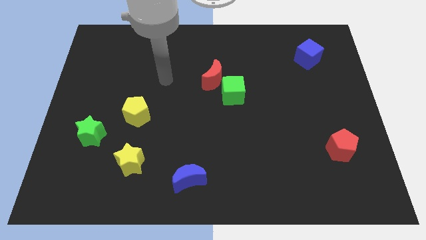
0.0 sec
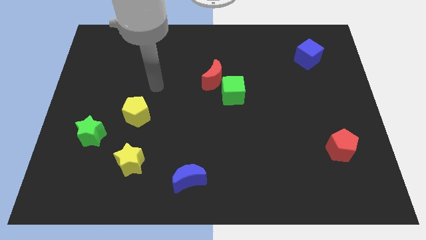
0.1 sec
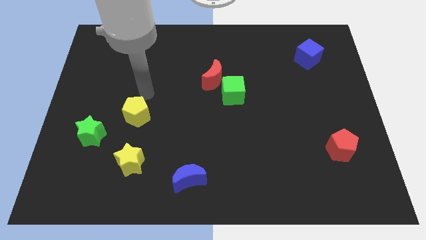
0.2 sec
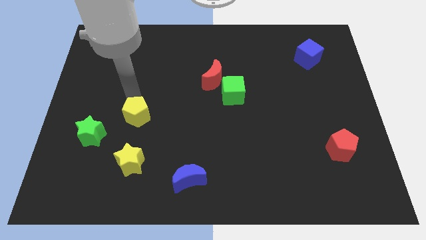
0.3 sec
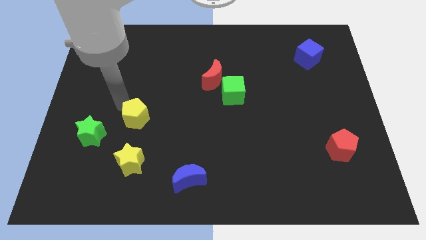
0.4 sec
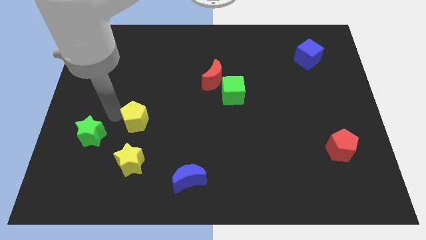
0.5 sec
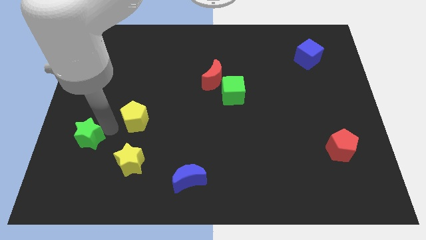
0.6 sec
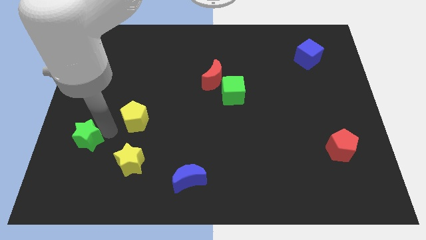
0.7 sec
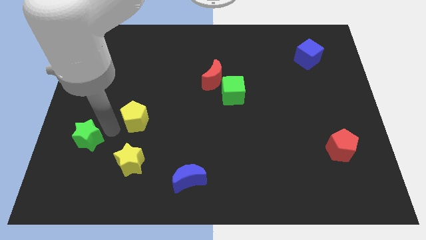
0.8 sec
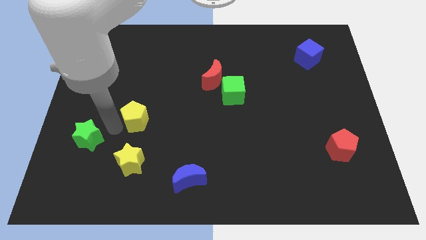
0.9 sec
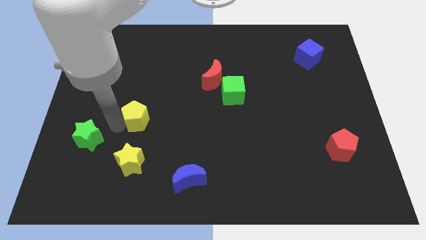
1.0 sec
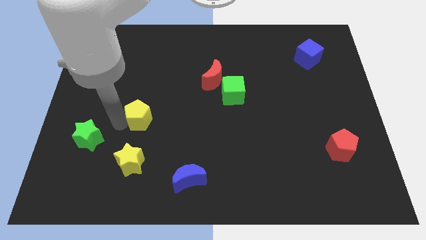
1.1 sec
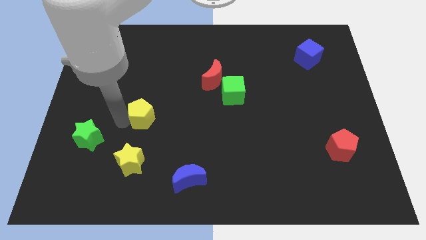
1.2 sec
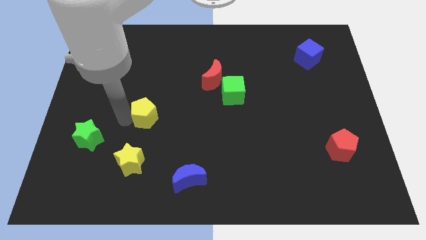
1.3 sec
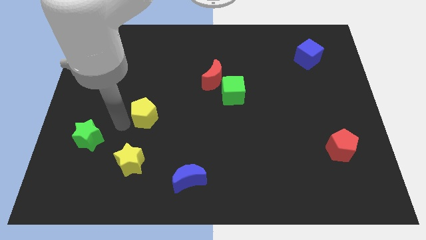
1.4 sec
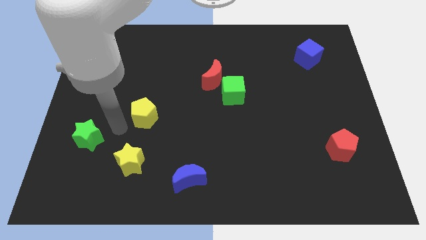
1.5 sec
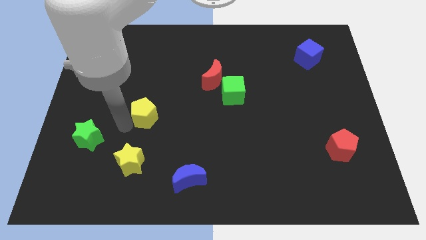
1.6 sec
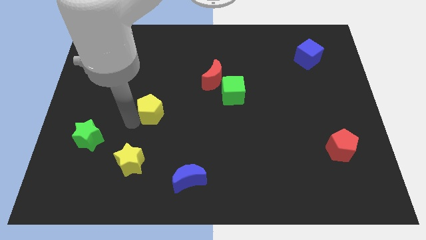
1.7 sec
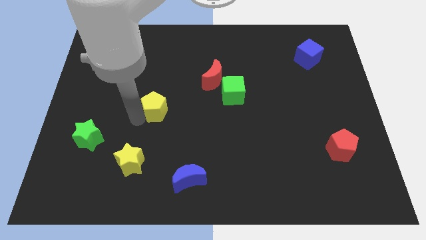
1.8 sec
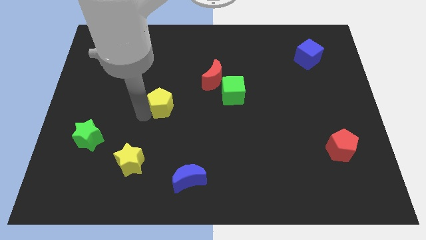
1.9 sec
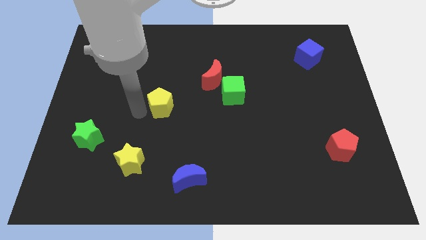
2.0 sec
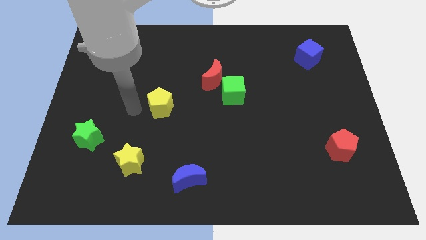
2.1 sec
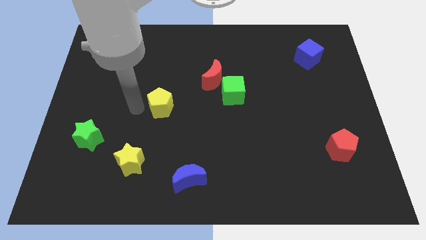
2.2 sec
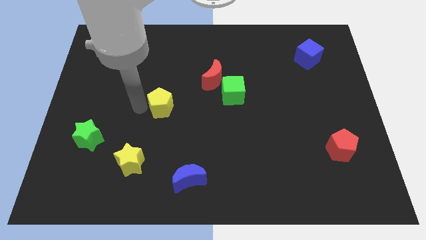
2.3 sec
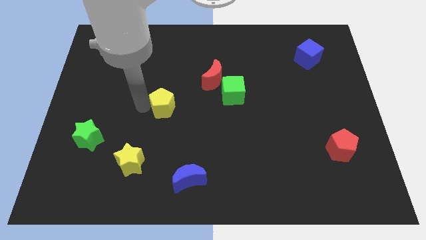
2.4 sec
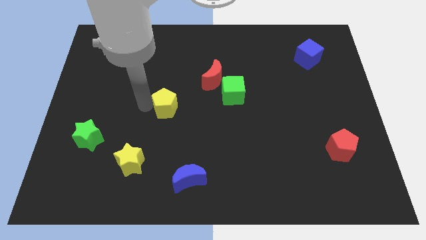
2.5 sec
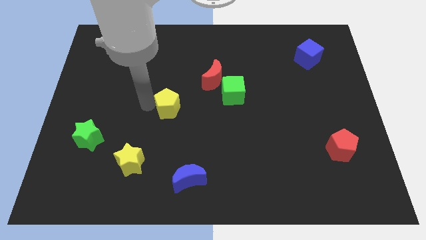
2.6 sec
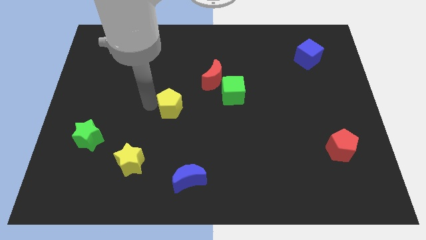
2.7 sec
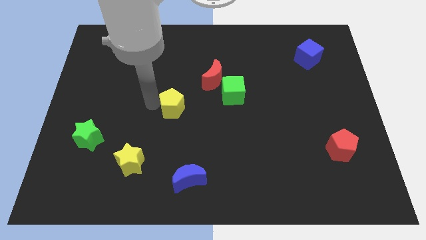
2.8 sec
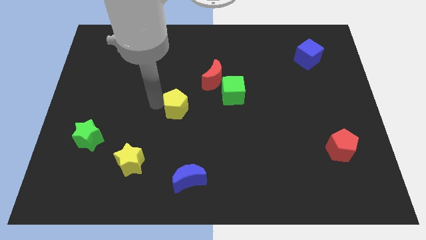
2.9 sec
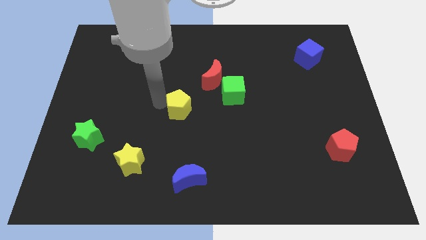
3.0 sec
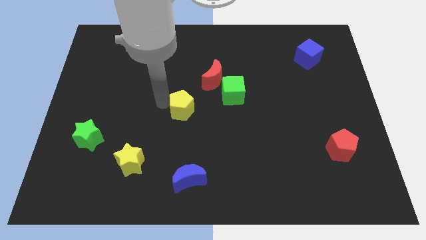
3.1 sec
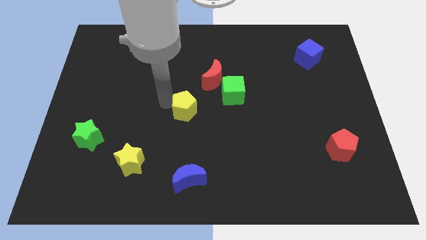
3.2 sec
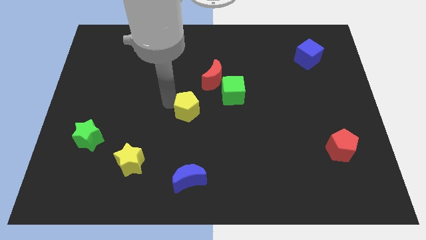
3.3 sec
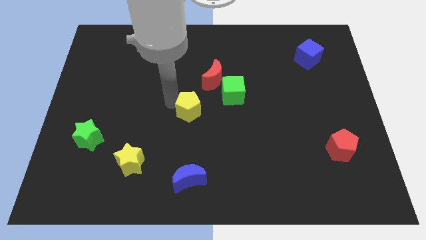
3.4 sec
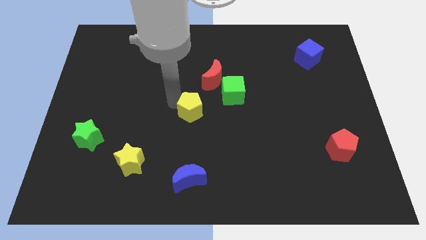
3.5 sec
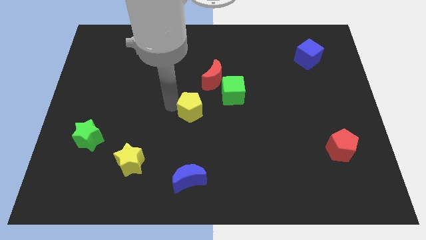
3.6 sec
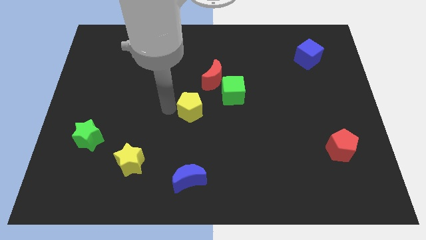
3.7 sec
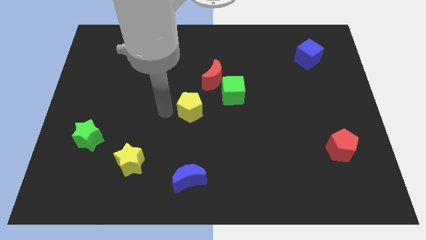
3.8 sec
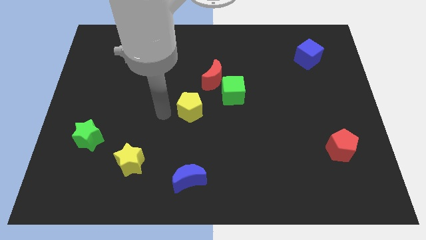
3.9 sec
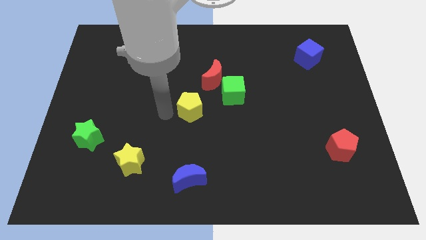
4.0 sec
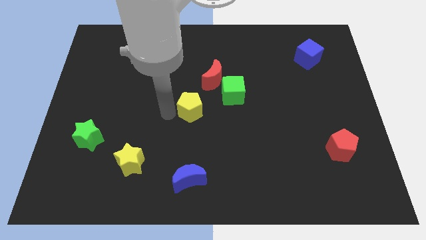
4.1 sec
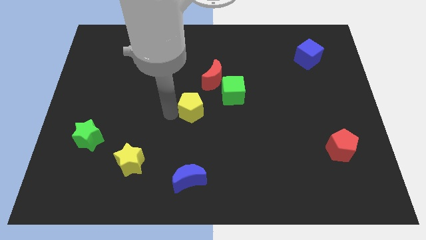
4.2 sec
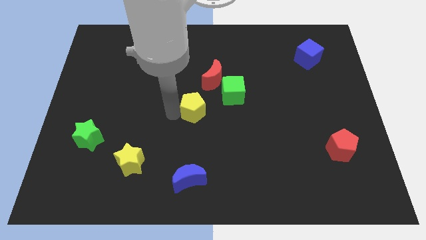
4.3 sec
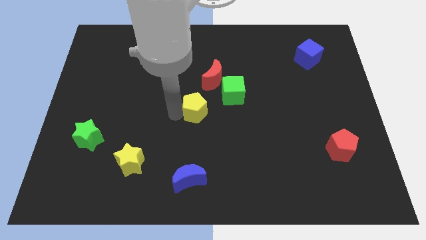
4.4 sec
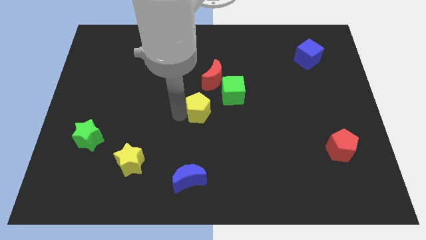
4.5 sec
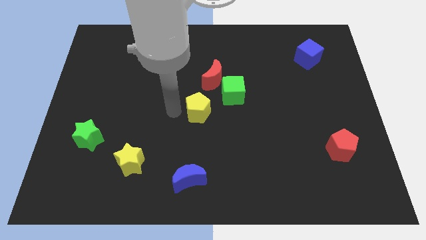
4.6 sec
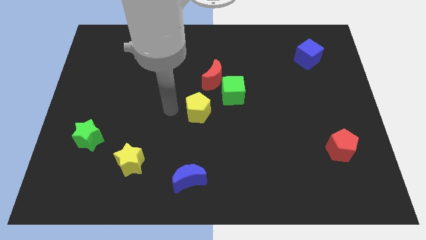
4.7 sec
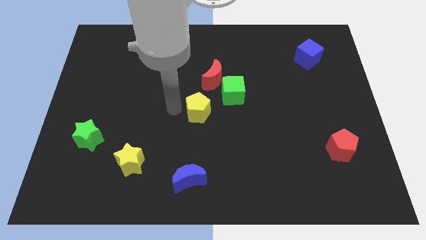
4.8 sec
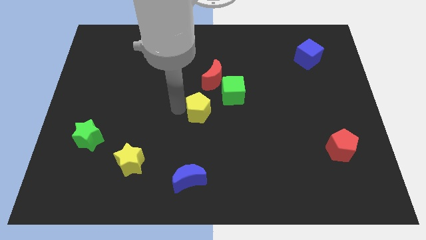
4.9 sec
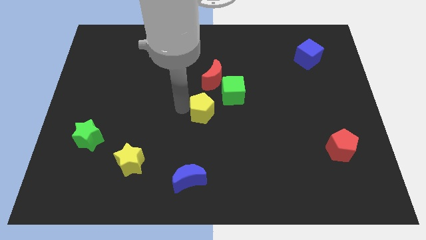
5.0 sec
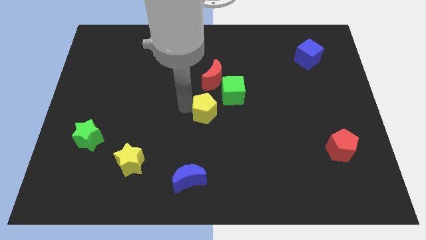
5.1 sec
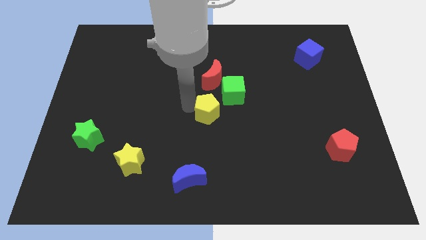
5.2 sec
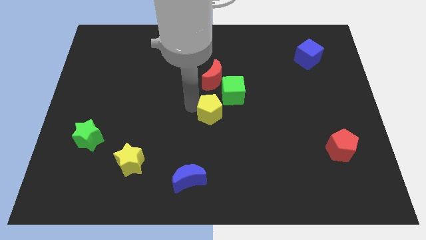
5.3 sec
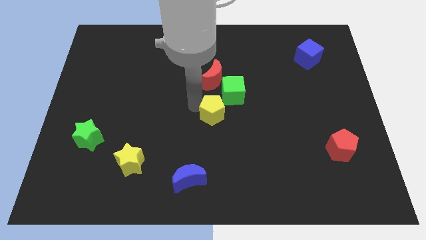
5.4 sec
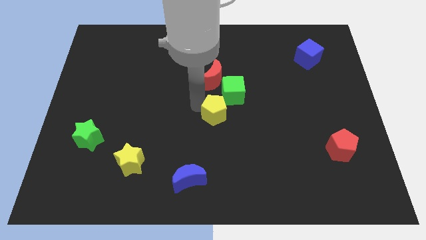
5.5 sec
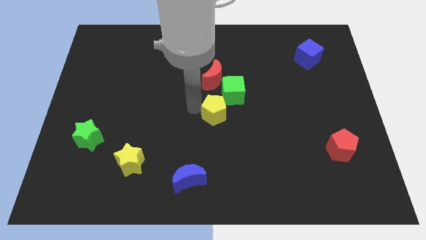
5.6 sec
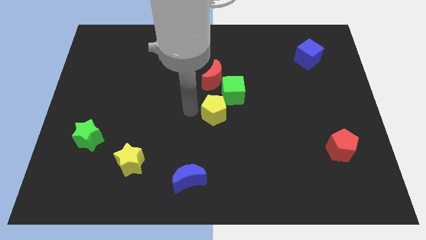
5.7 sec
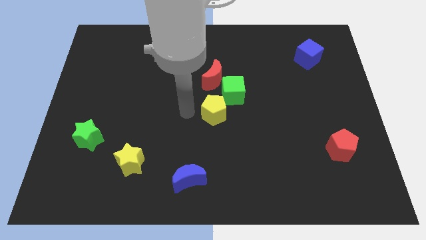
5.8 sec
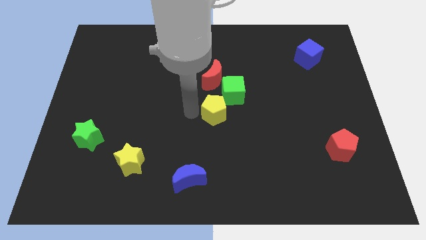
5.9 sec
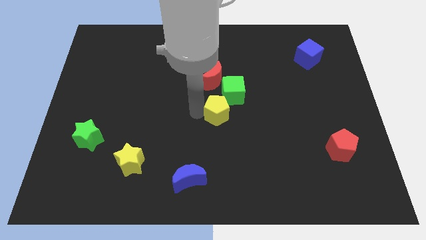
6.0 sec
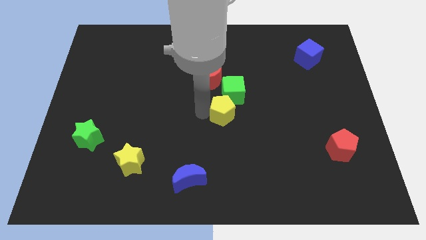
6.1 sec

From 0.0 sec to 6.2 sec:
push the yellow pentagon to the right

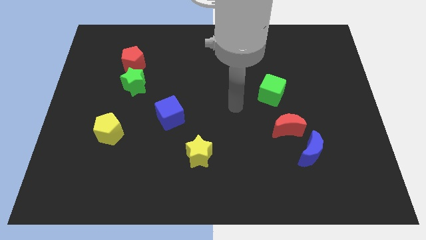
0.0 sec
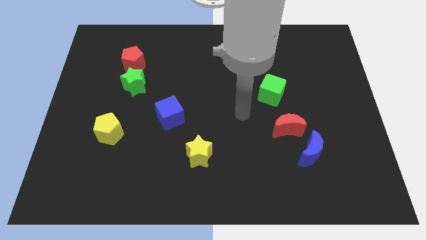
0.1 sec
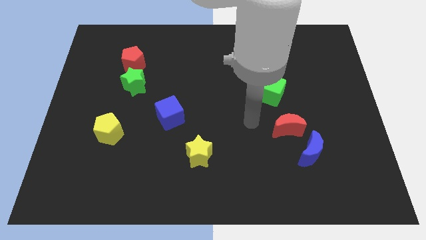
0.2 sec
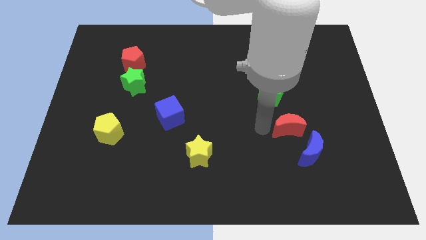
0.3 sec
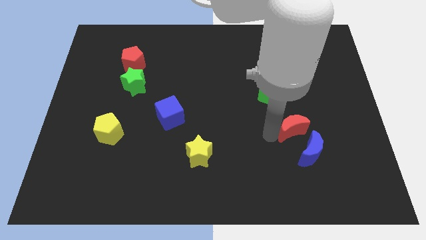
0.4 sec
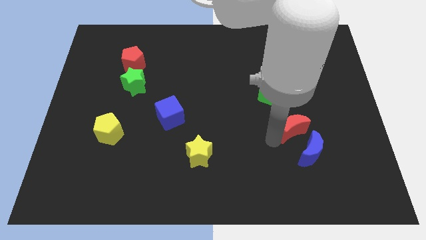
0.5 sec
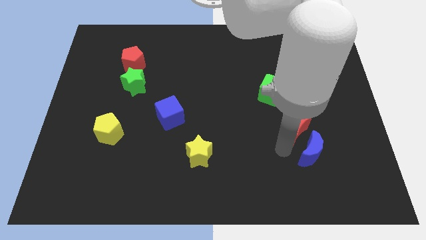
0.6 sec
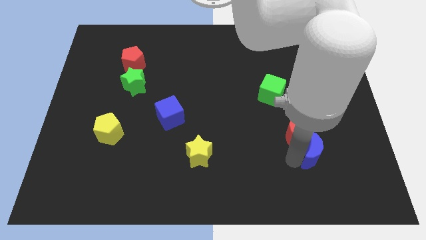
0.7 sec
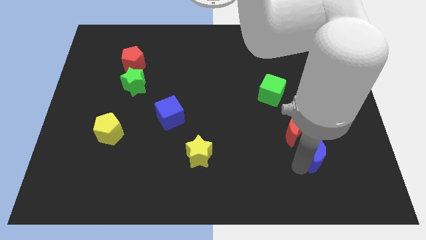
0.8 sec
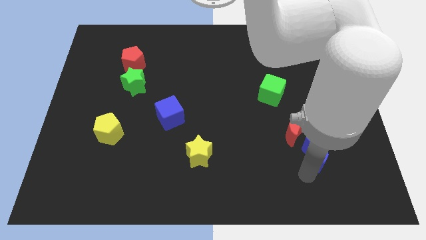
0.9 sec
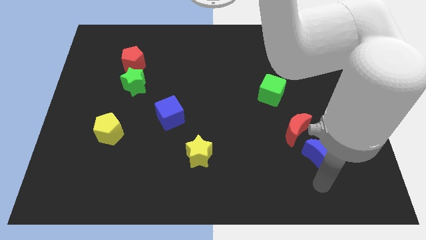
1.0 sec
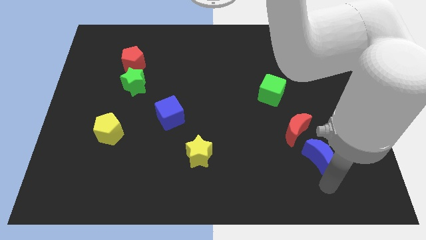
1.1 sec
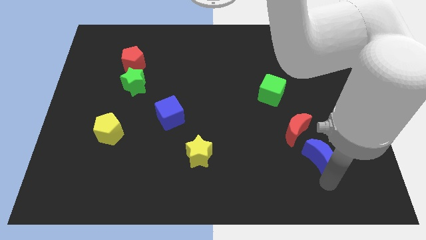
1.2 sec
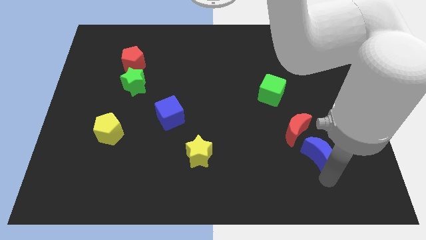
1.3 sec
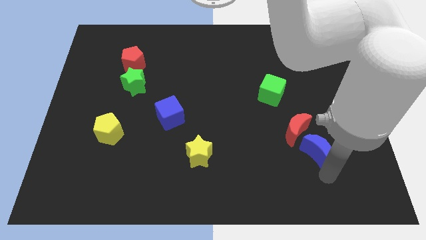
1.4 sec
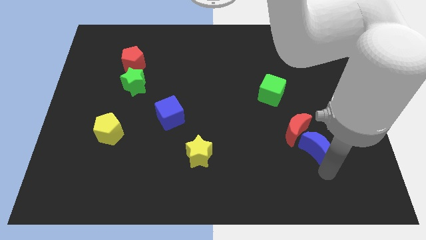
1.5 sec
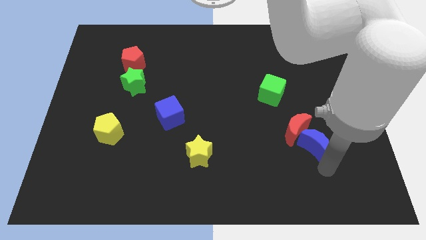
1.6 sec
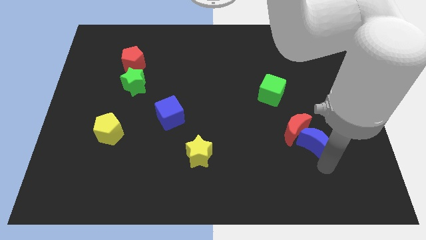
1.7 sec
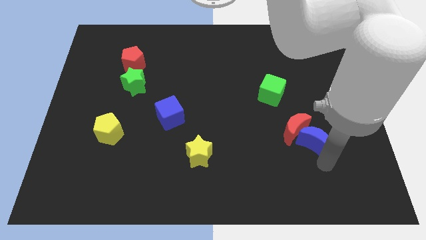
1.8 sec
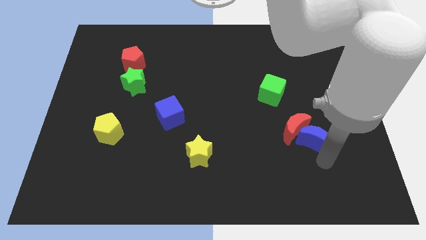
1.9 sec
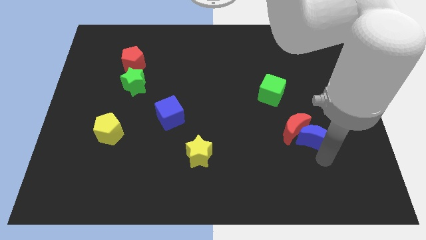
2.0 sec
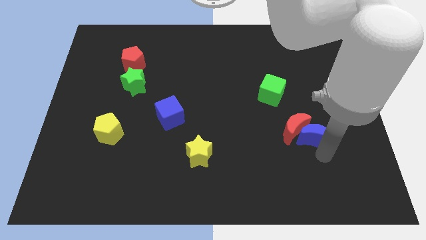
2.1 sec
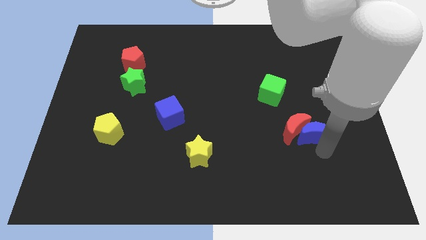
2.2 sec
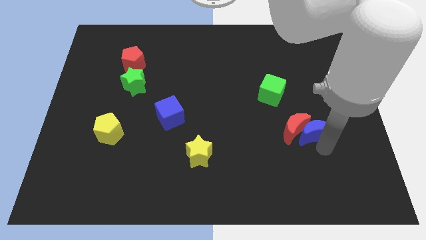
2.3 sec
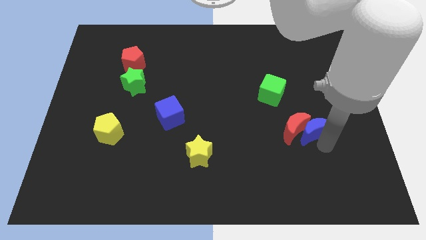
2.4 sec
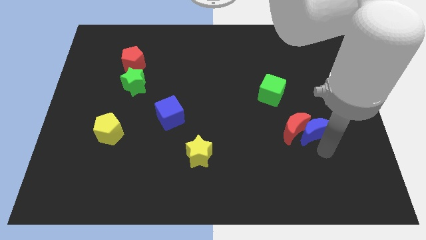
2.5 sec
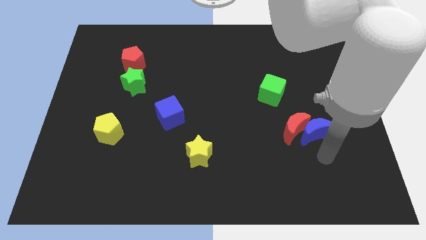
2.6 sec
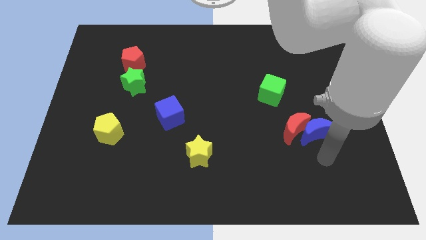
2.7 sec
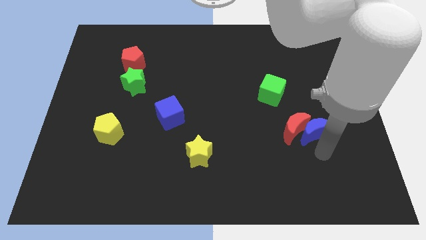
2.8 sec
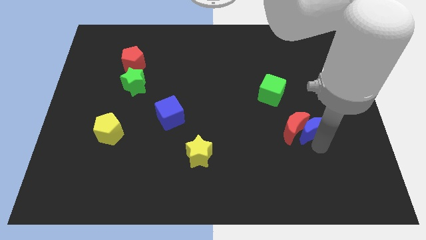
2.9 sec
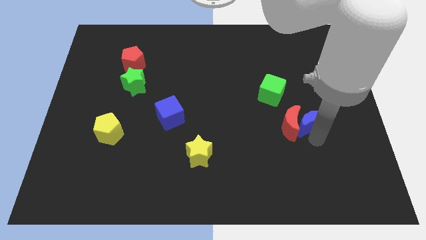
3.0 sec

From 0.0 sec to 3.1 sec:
push the blue moon upwards a little
